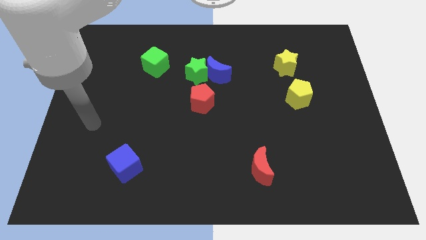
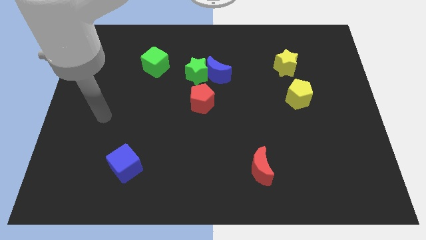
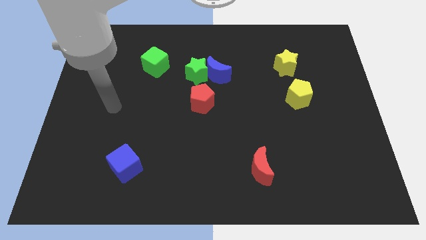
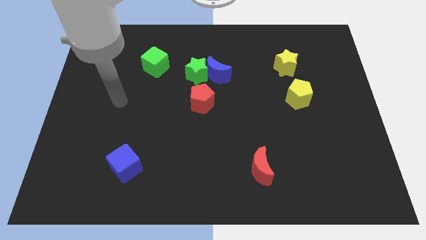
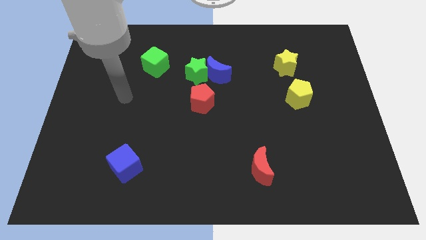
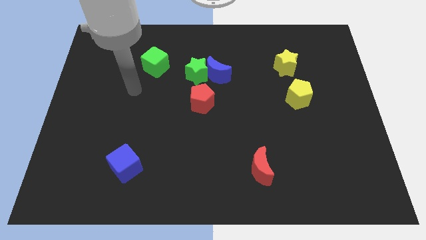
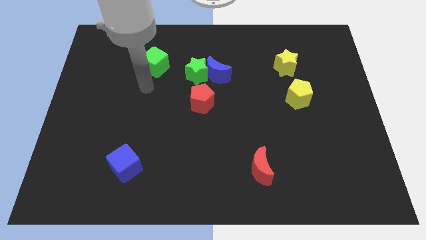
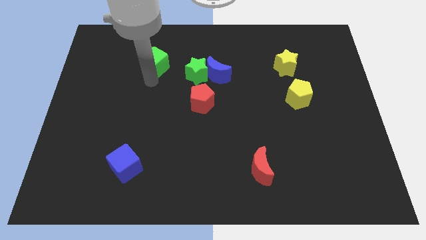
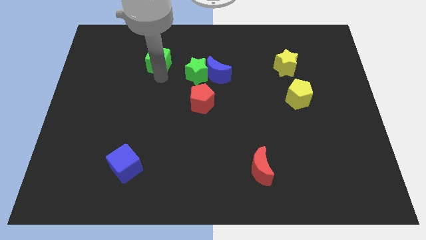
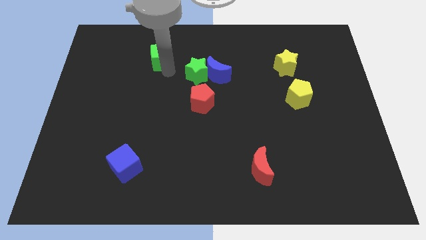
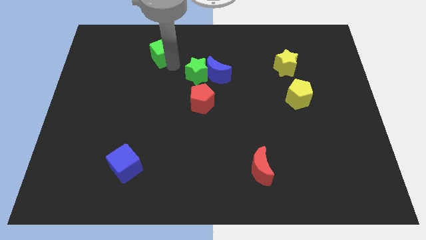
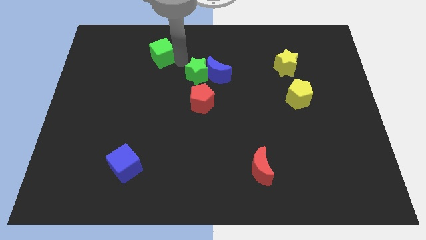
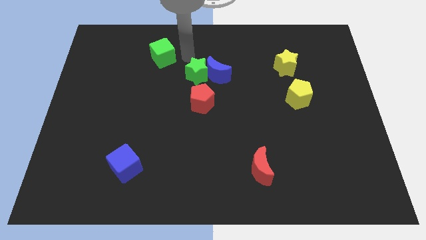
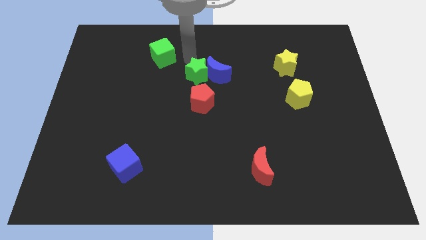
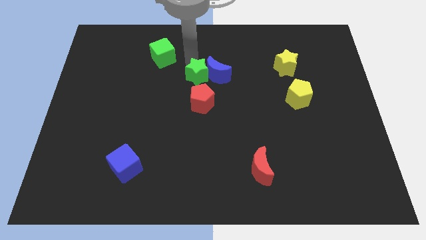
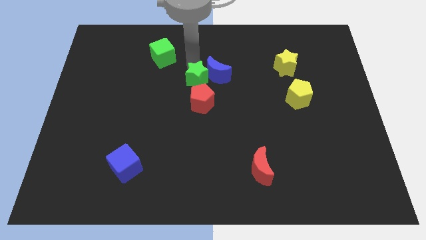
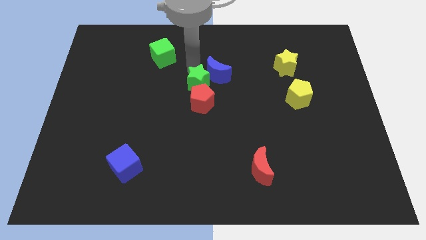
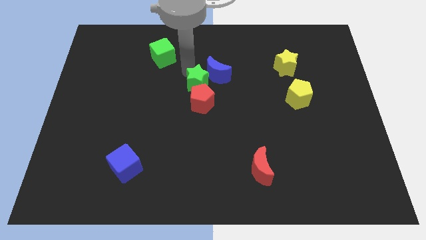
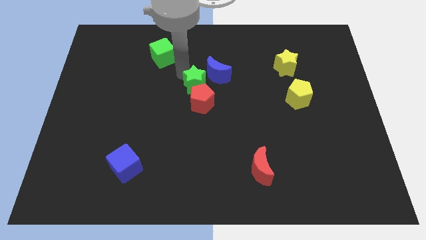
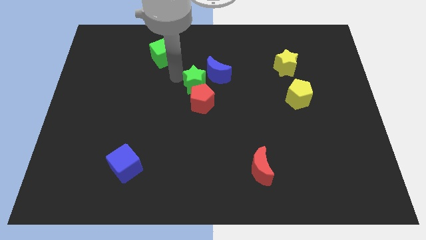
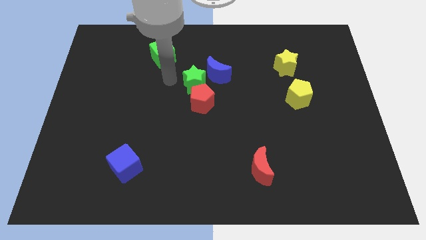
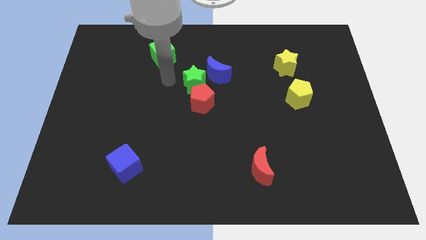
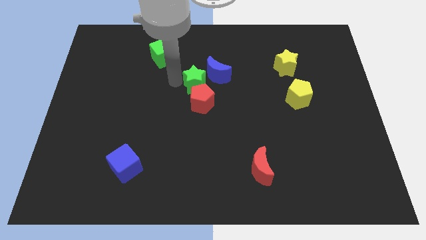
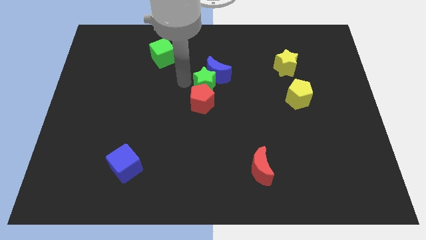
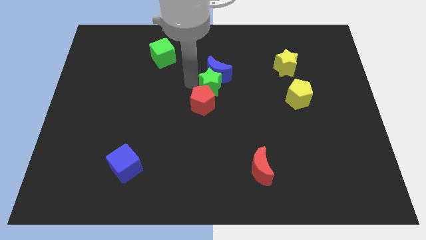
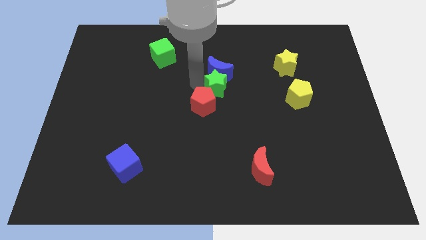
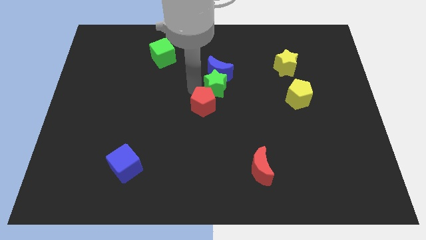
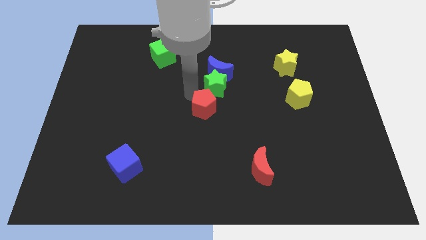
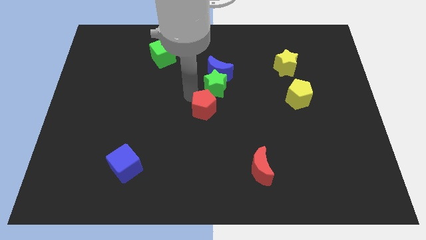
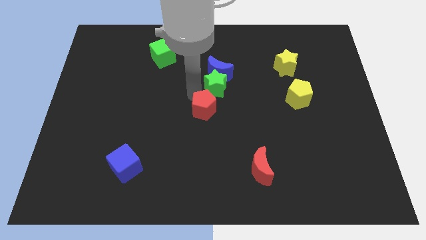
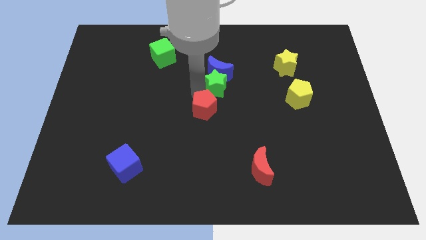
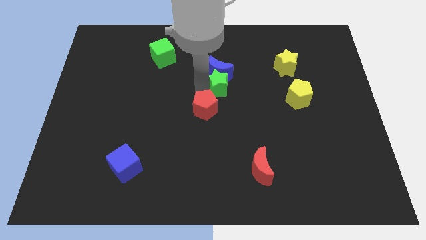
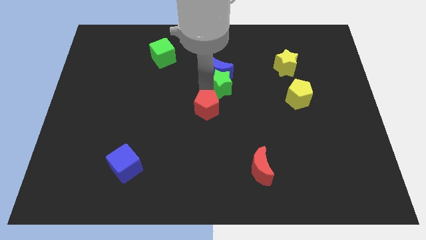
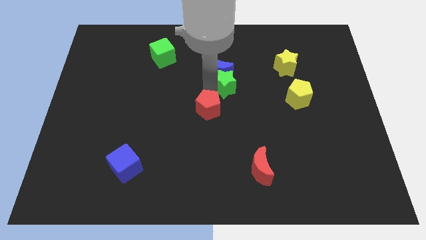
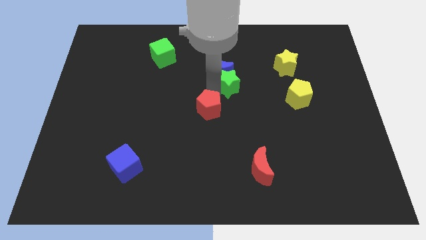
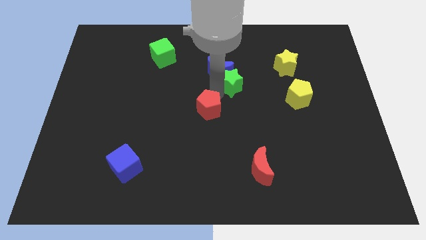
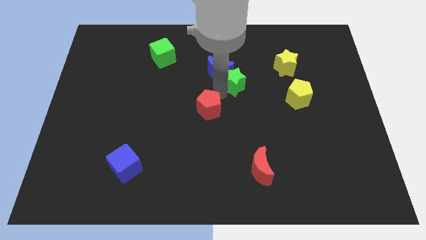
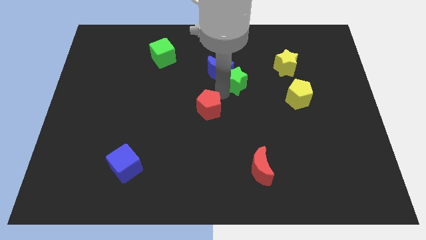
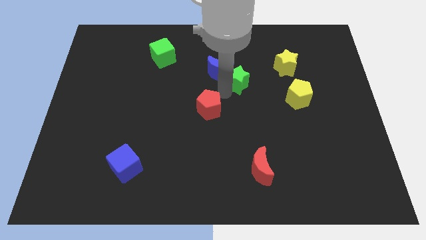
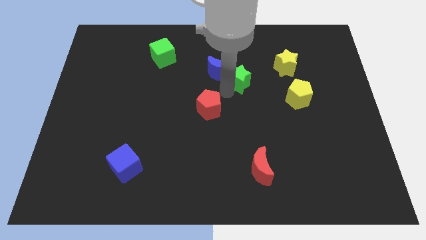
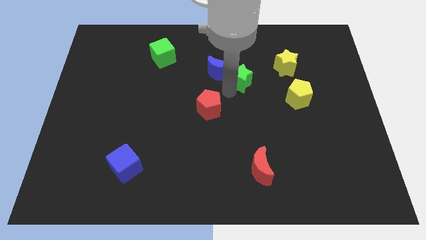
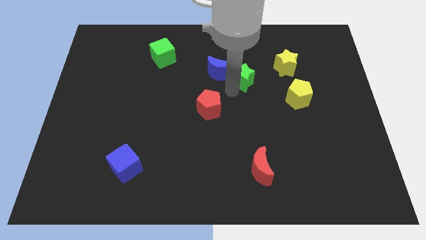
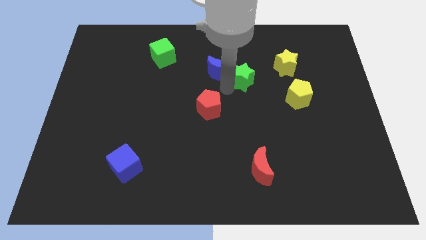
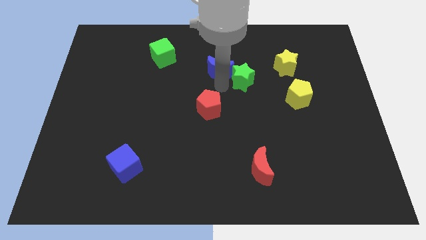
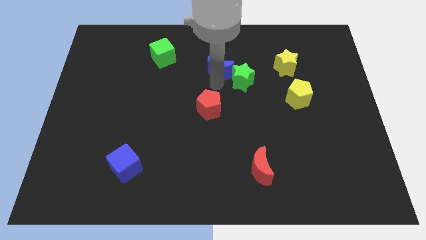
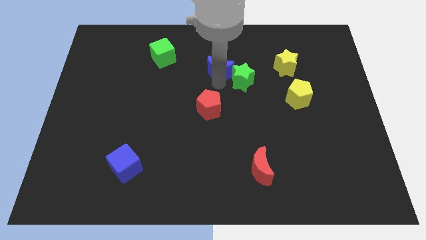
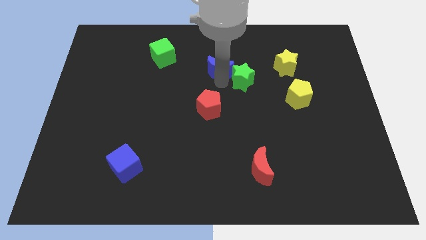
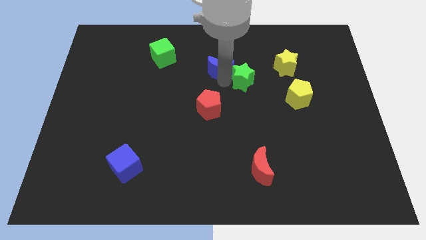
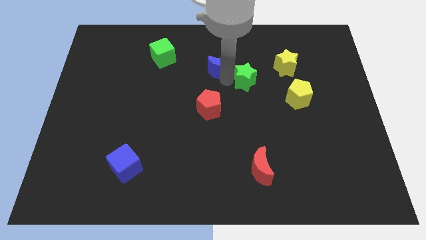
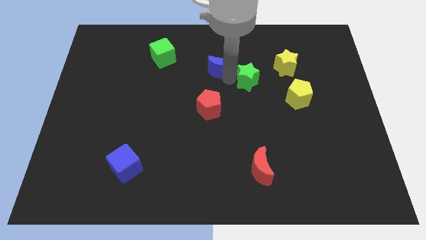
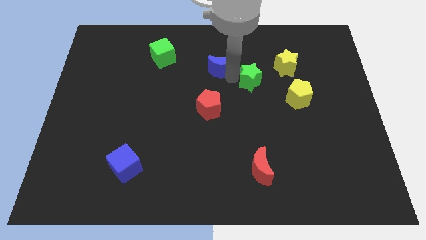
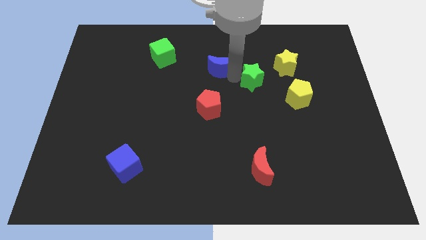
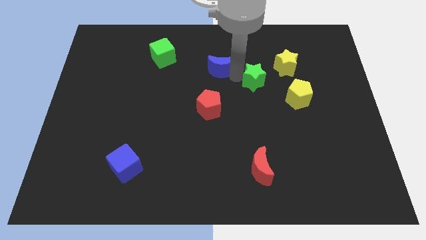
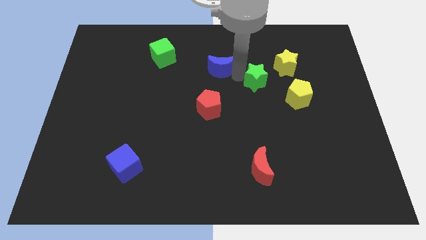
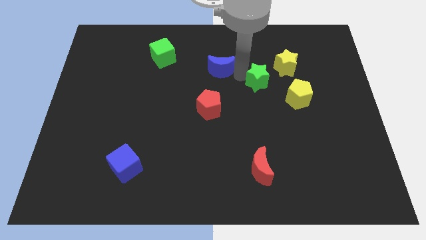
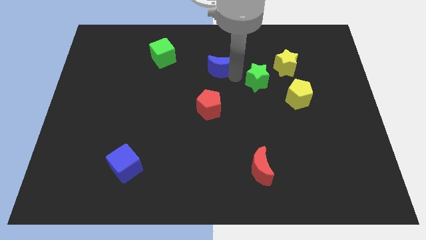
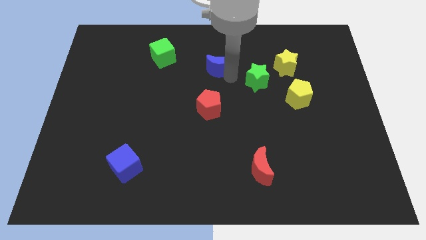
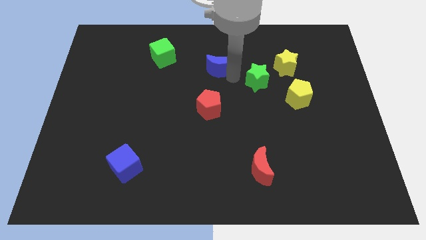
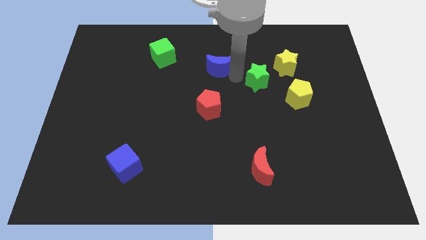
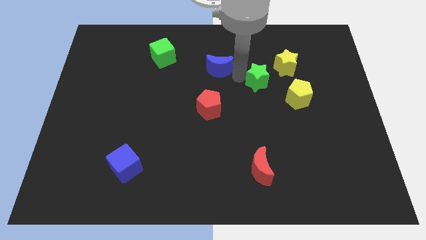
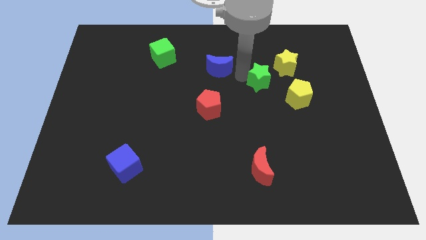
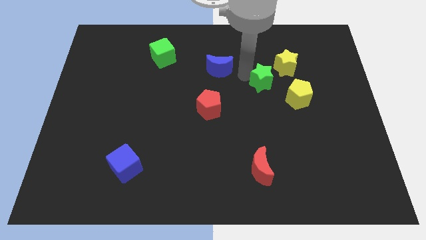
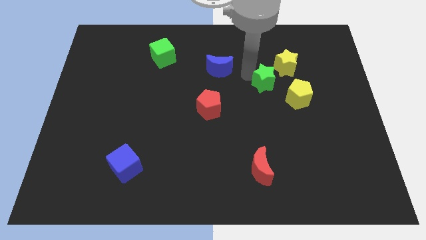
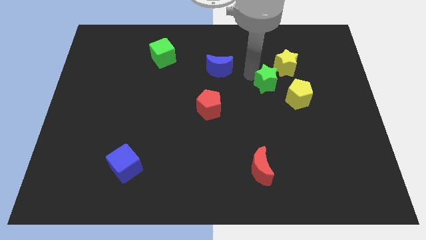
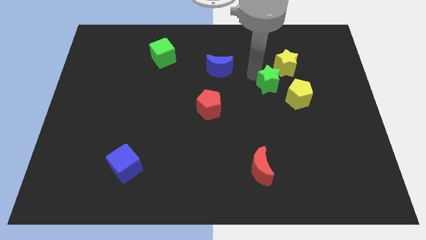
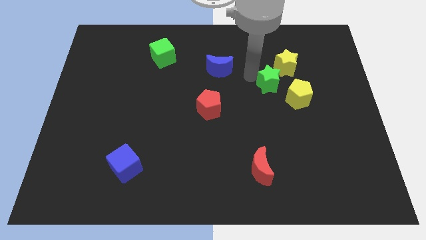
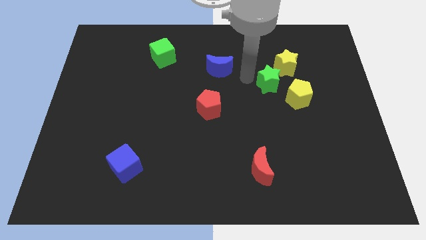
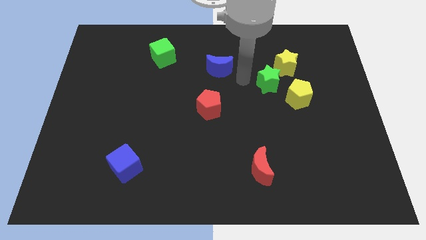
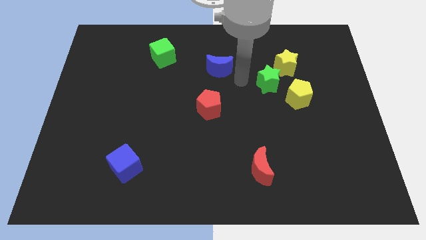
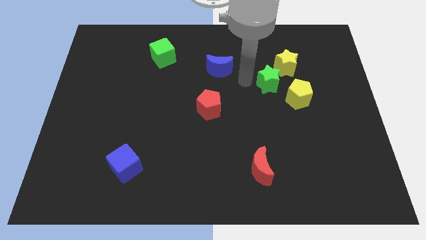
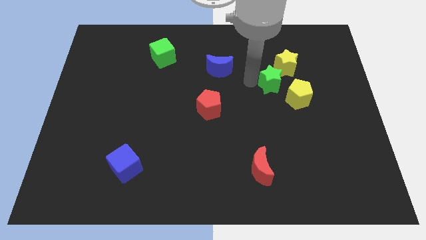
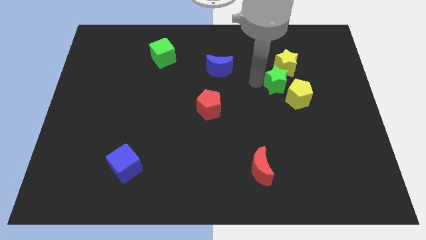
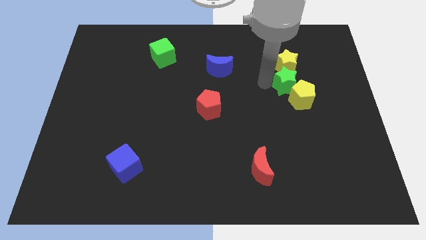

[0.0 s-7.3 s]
move the green star right

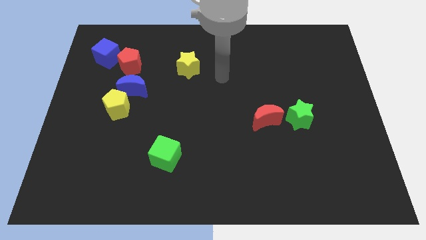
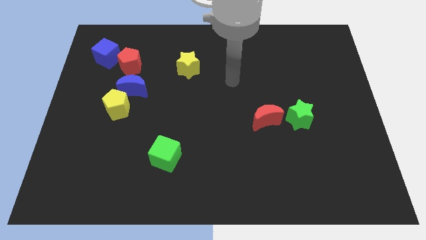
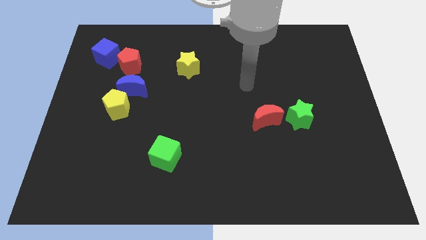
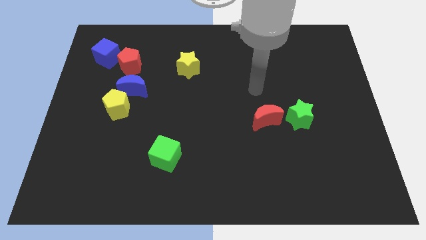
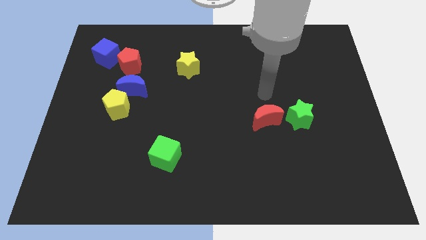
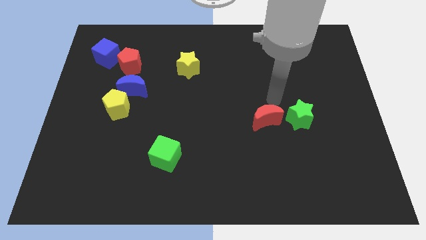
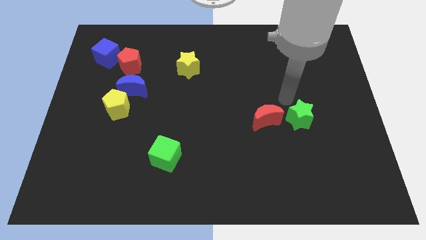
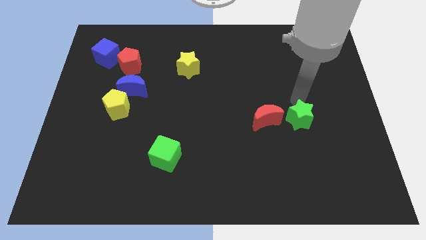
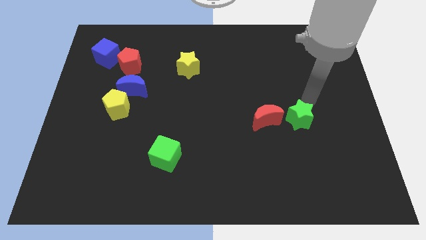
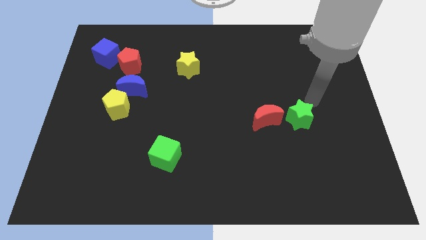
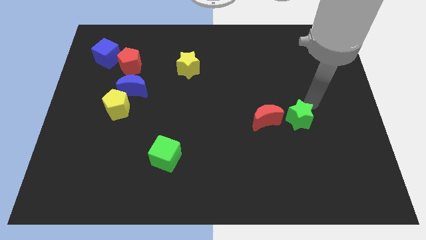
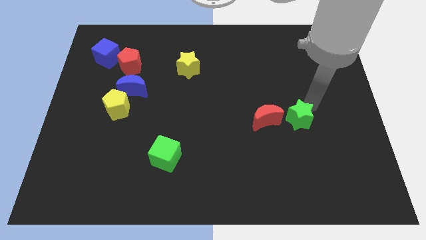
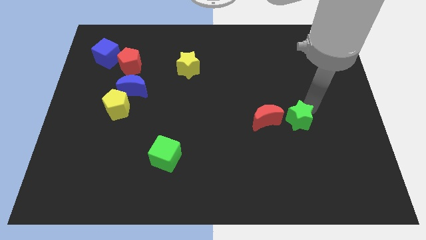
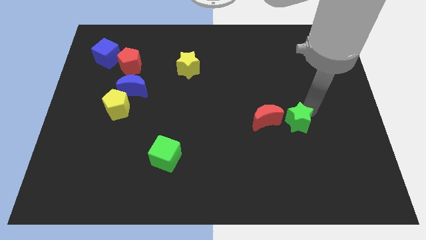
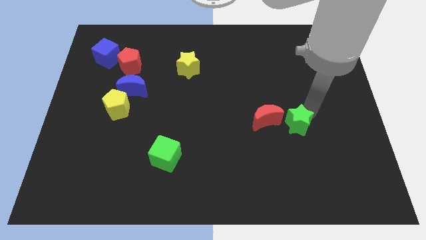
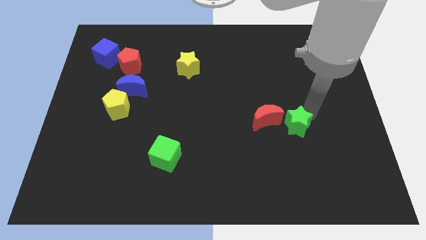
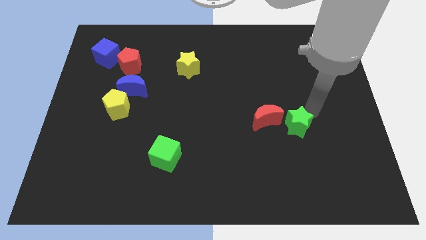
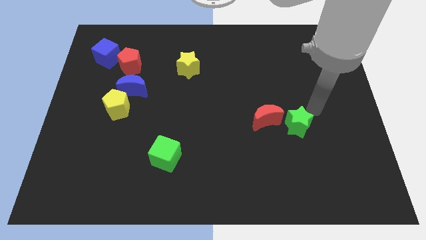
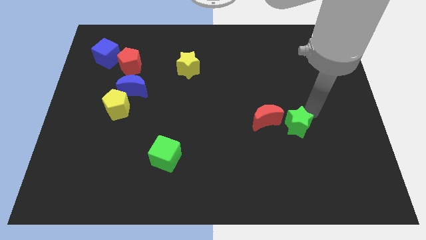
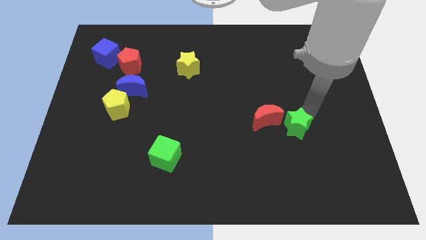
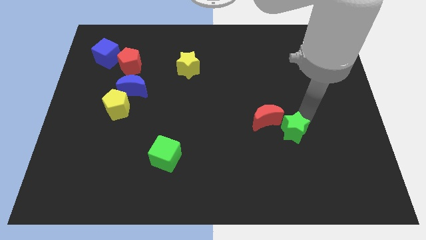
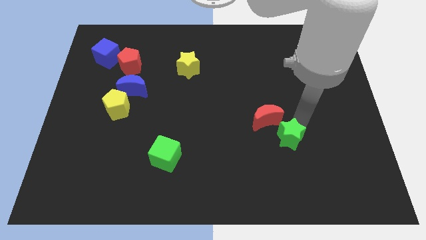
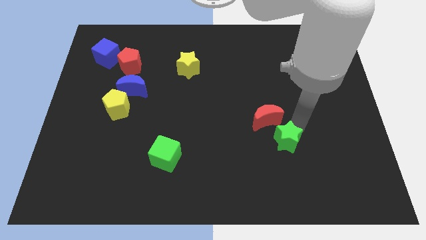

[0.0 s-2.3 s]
slide the green star somewhat diagonally downwards and left
